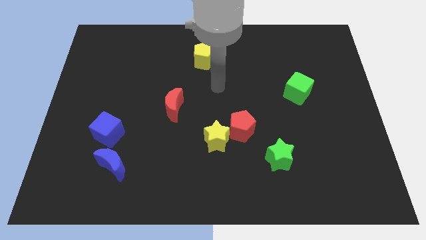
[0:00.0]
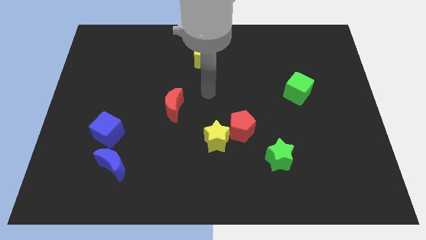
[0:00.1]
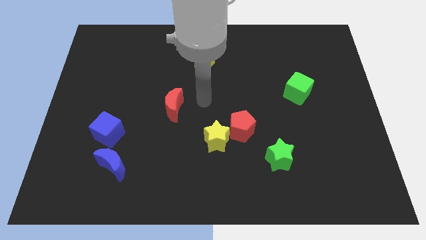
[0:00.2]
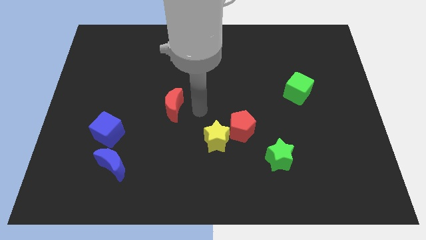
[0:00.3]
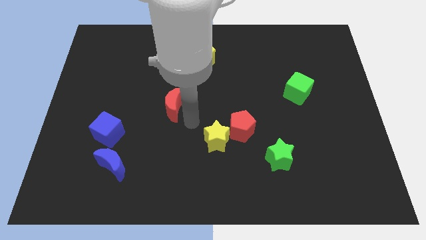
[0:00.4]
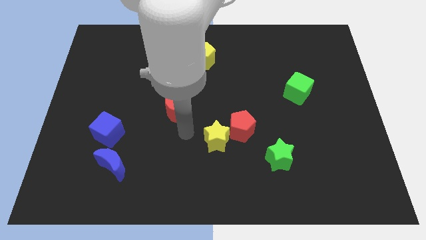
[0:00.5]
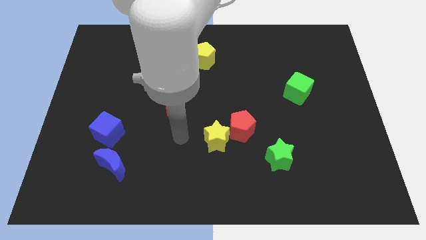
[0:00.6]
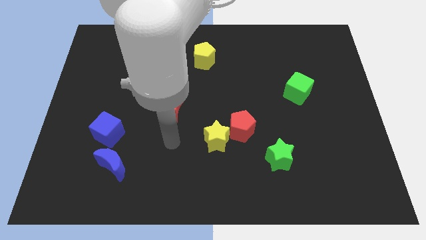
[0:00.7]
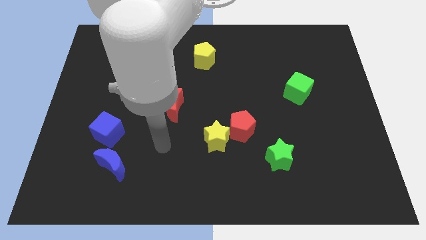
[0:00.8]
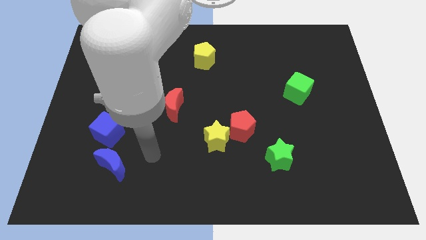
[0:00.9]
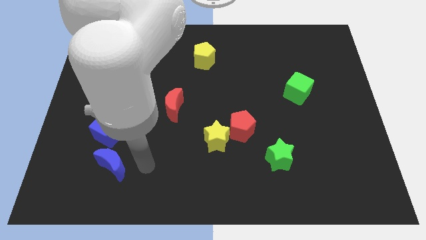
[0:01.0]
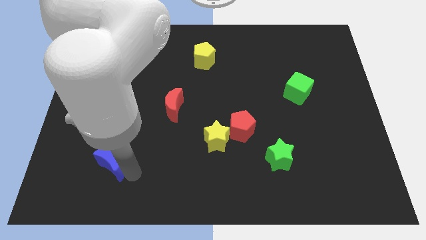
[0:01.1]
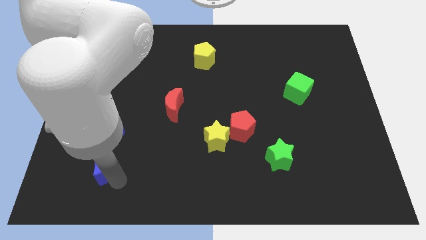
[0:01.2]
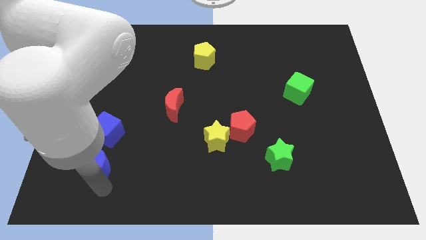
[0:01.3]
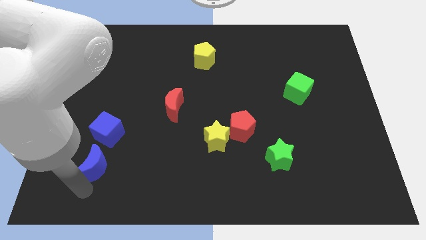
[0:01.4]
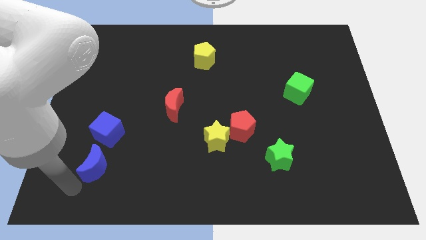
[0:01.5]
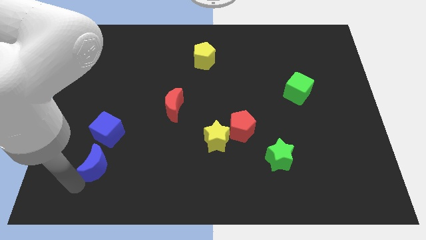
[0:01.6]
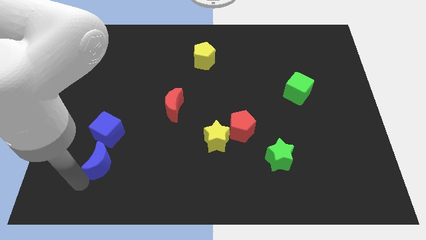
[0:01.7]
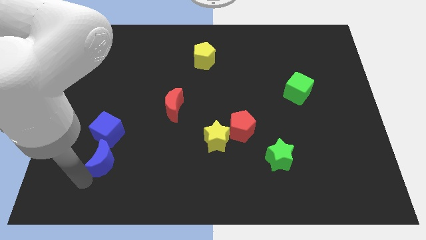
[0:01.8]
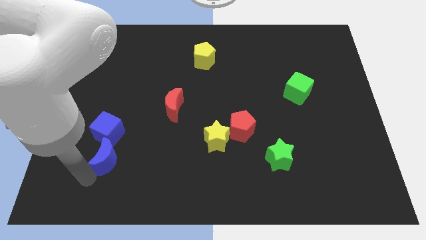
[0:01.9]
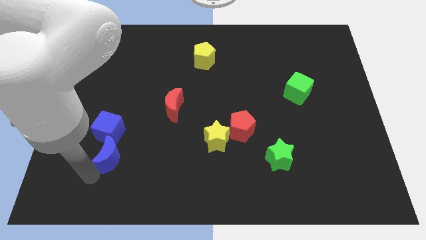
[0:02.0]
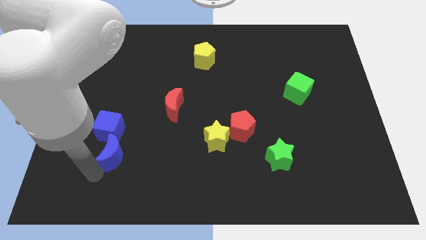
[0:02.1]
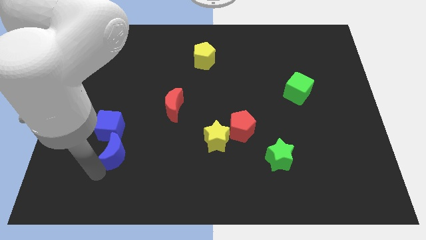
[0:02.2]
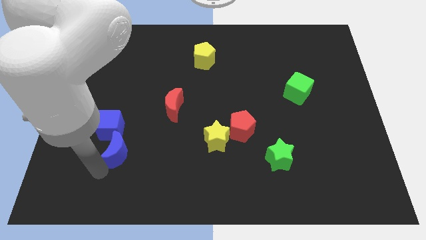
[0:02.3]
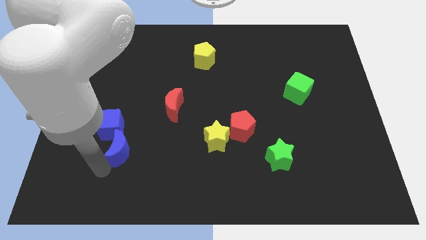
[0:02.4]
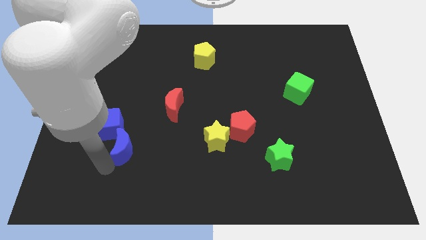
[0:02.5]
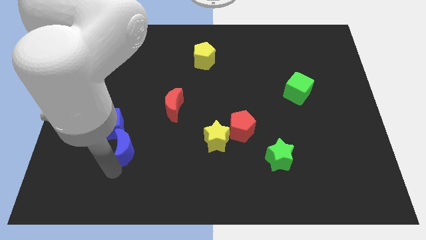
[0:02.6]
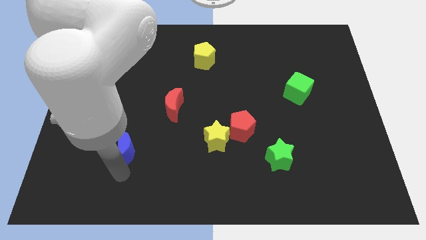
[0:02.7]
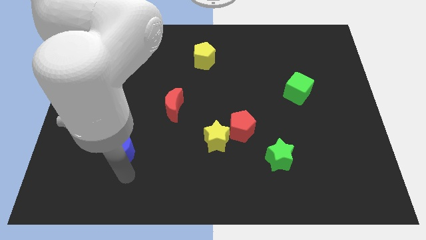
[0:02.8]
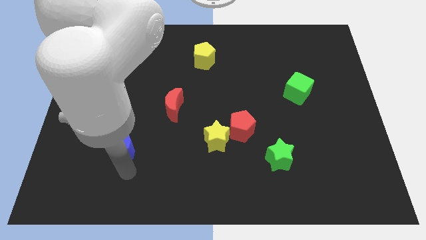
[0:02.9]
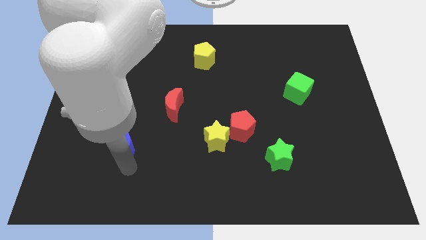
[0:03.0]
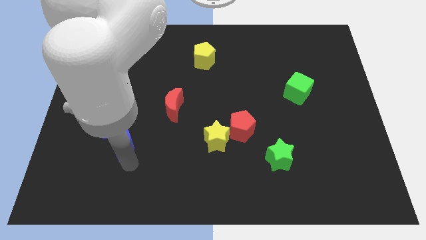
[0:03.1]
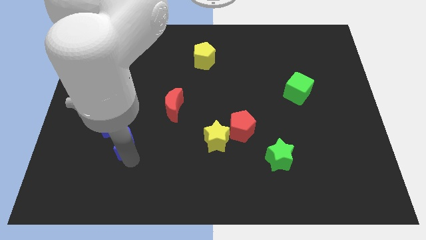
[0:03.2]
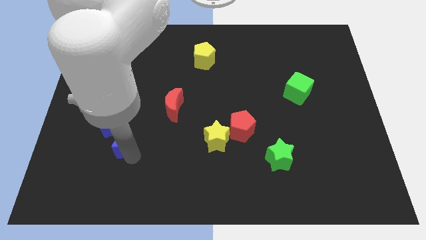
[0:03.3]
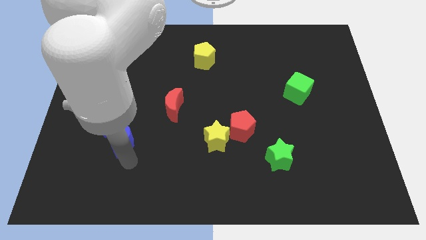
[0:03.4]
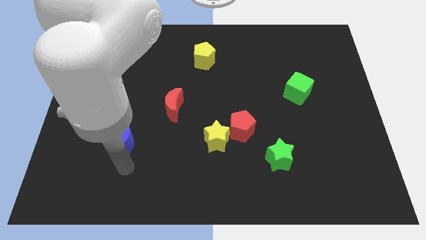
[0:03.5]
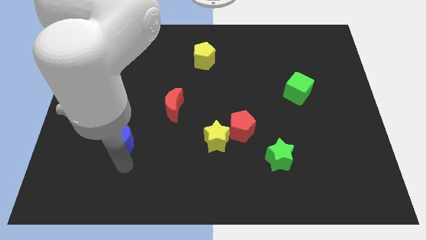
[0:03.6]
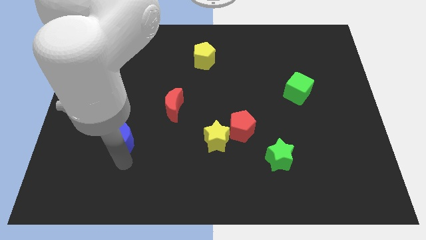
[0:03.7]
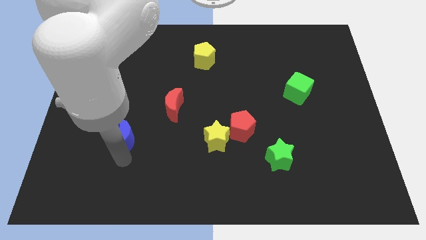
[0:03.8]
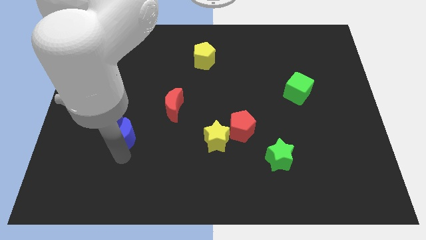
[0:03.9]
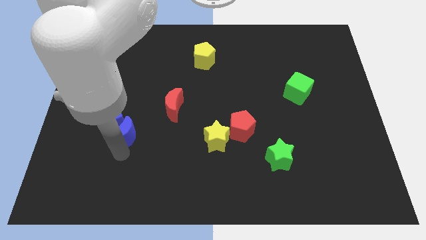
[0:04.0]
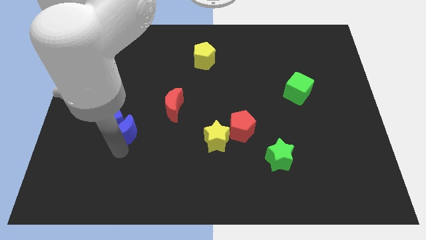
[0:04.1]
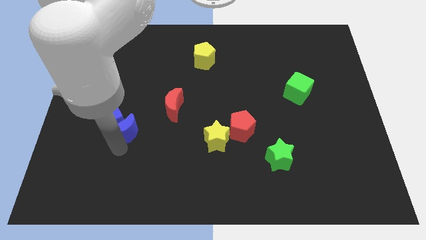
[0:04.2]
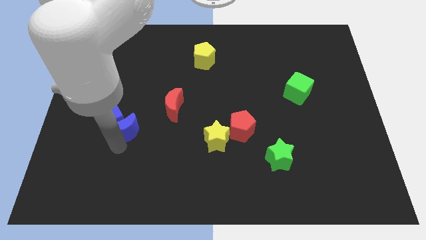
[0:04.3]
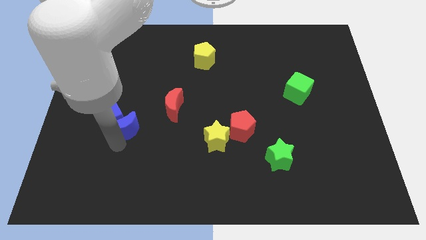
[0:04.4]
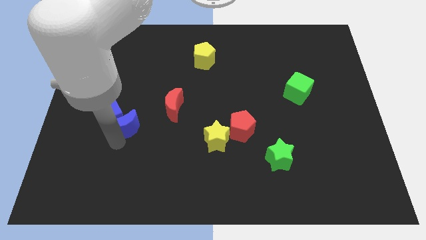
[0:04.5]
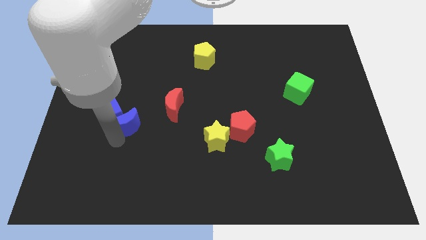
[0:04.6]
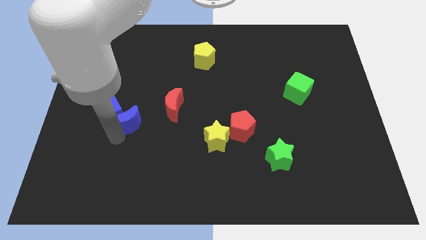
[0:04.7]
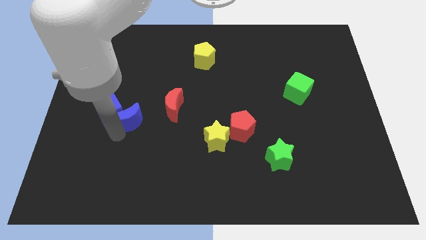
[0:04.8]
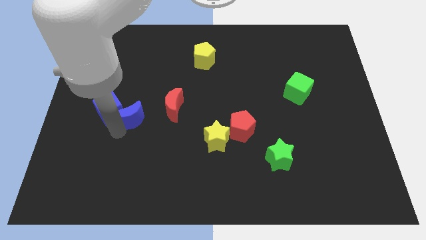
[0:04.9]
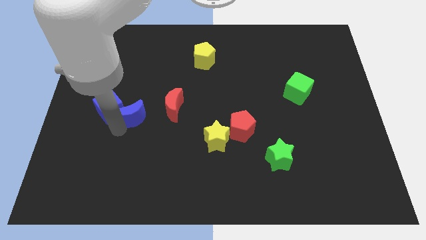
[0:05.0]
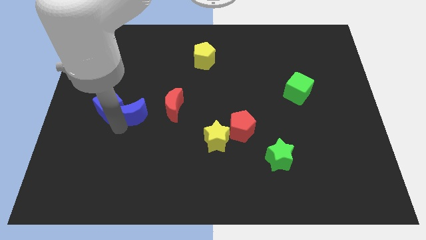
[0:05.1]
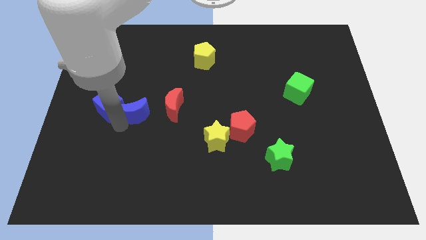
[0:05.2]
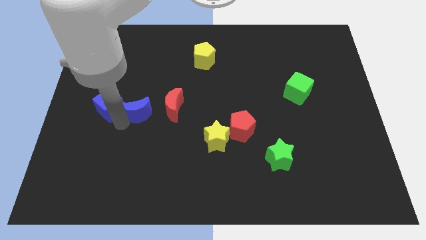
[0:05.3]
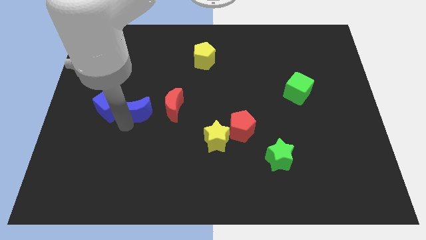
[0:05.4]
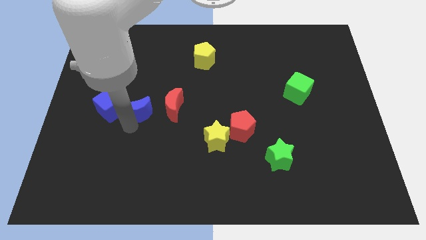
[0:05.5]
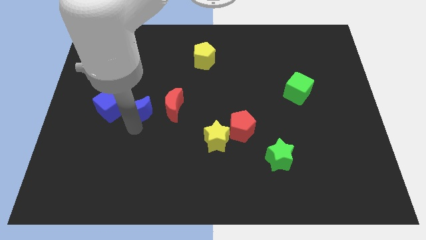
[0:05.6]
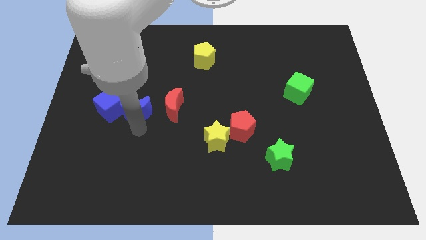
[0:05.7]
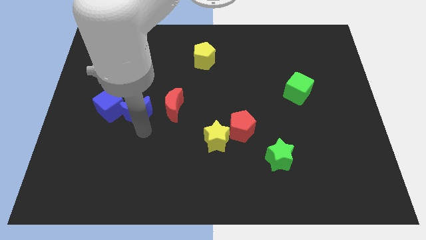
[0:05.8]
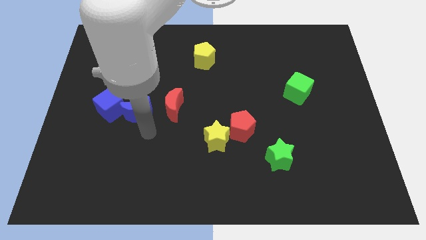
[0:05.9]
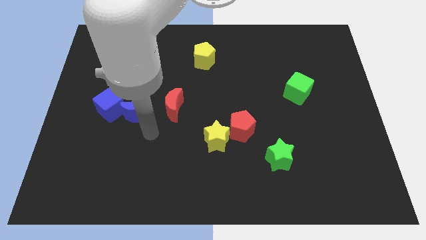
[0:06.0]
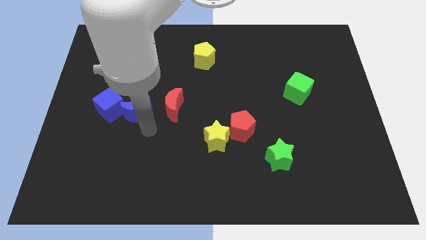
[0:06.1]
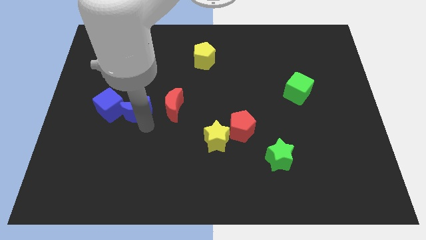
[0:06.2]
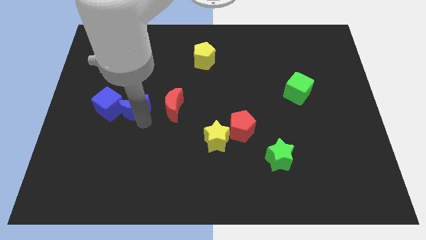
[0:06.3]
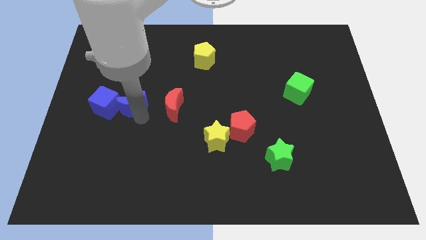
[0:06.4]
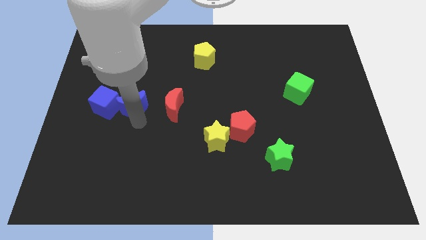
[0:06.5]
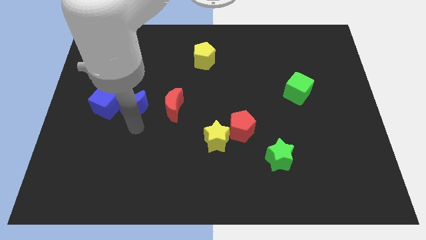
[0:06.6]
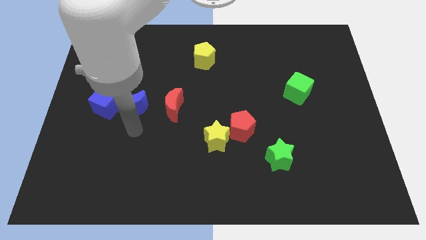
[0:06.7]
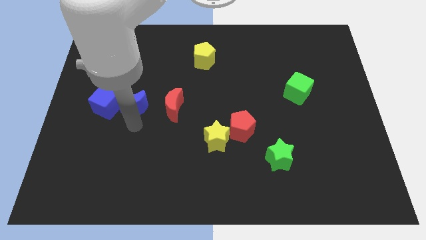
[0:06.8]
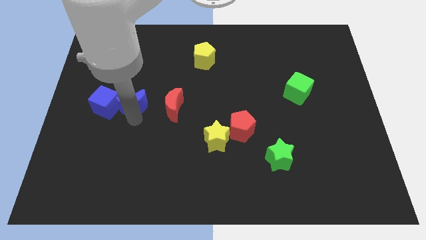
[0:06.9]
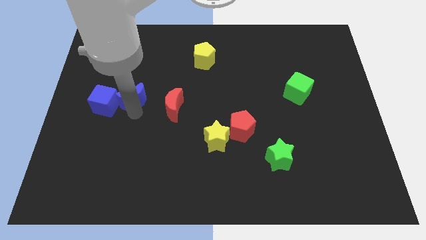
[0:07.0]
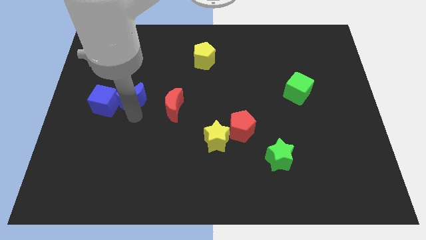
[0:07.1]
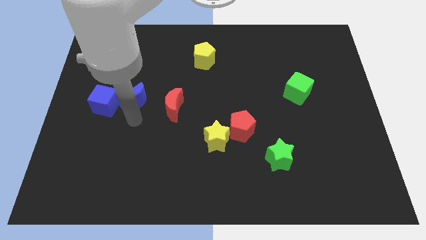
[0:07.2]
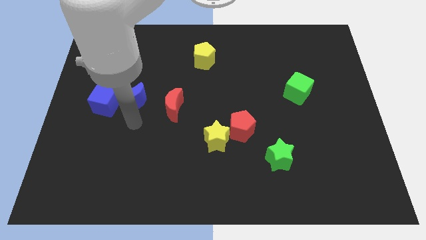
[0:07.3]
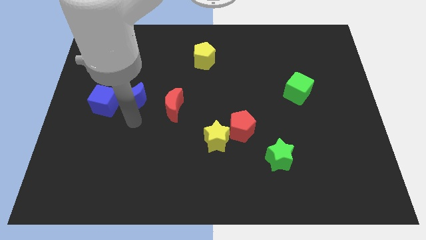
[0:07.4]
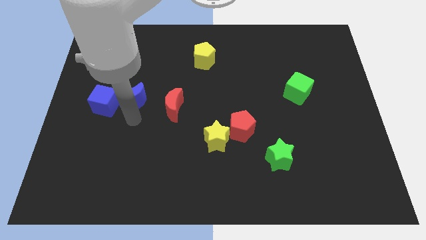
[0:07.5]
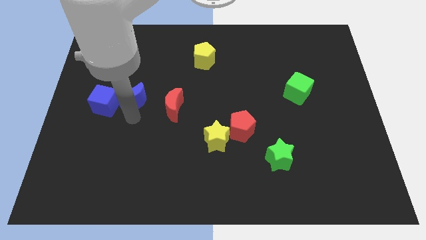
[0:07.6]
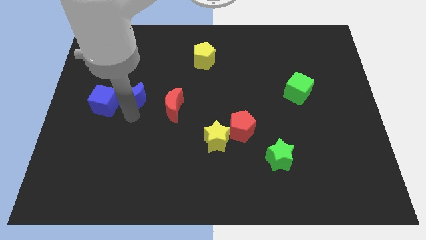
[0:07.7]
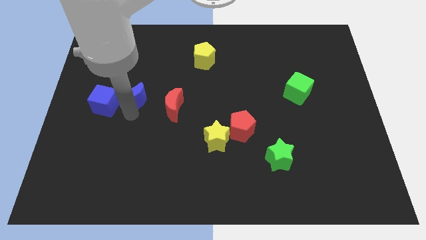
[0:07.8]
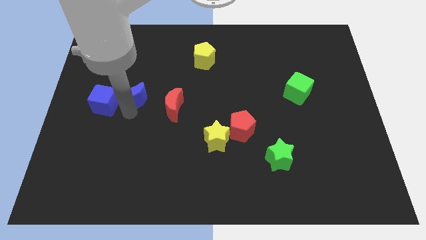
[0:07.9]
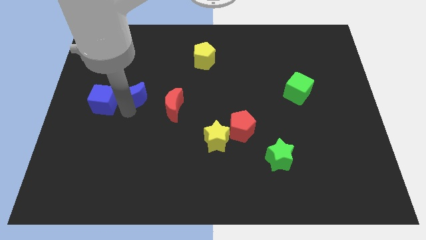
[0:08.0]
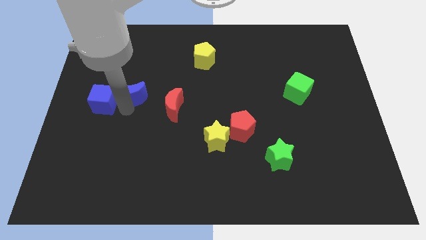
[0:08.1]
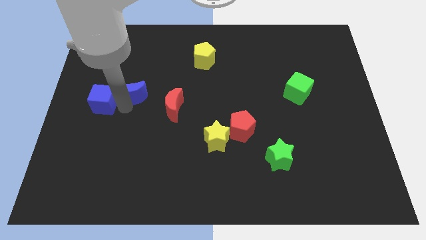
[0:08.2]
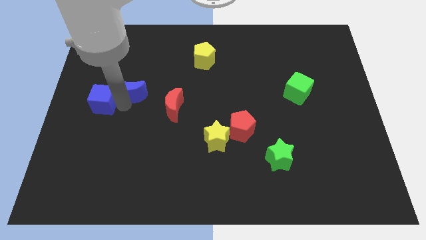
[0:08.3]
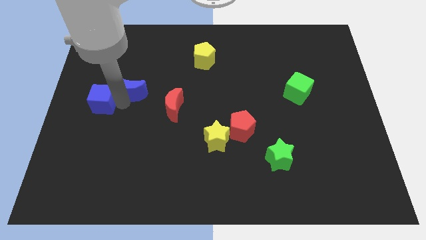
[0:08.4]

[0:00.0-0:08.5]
push the blue moon upwards
